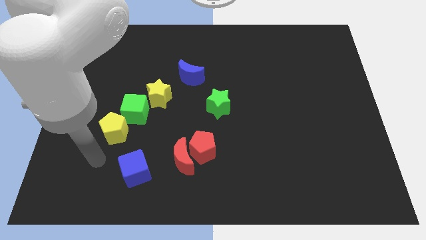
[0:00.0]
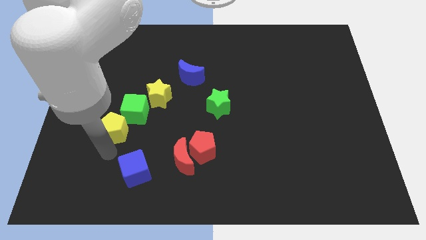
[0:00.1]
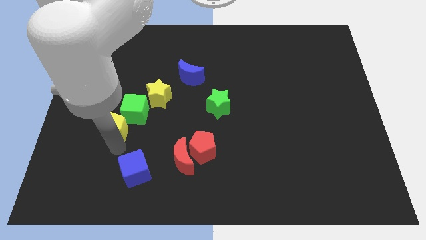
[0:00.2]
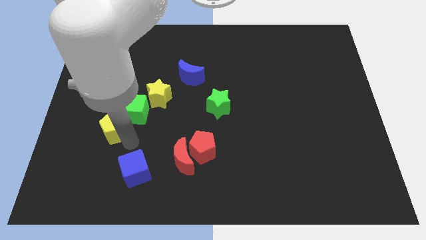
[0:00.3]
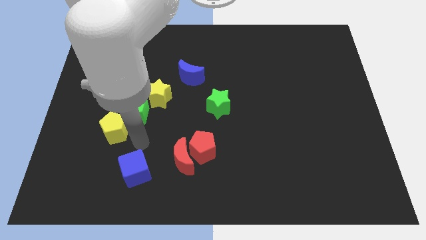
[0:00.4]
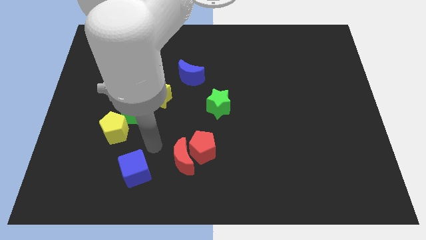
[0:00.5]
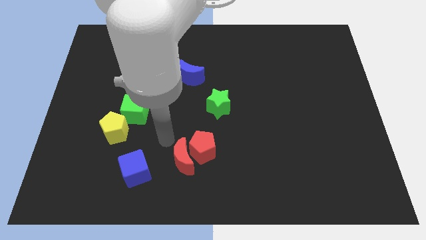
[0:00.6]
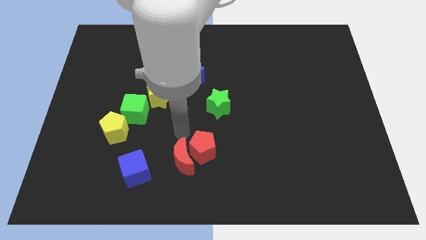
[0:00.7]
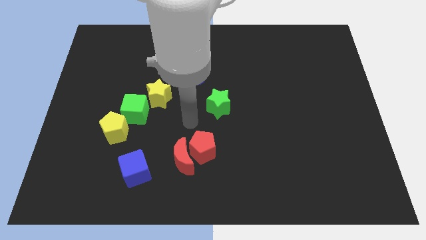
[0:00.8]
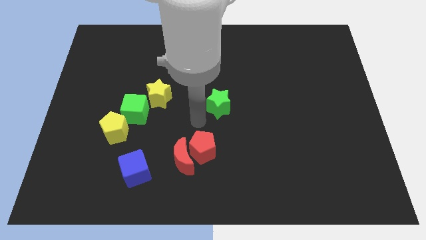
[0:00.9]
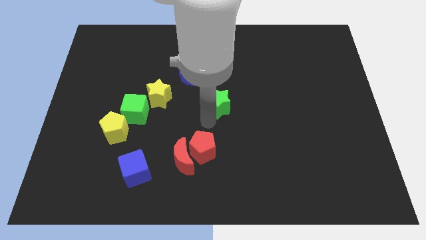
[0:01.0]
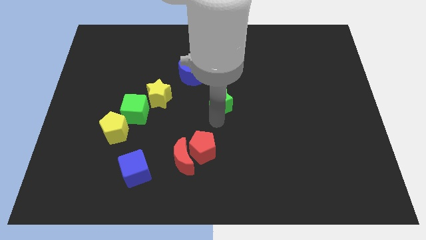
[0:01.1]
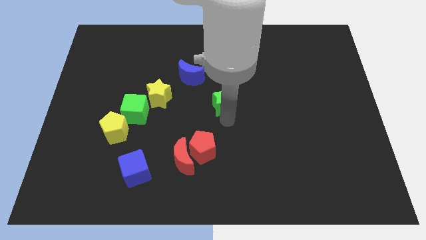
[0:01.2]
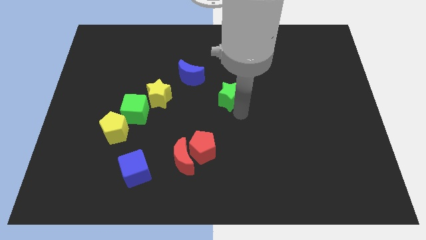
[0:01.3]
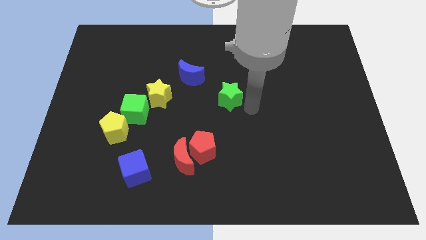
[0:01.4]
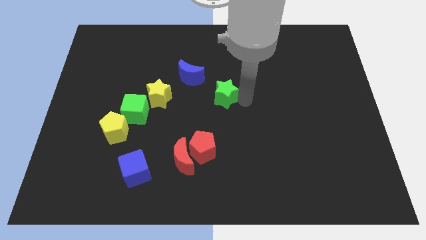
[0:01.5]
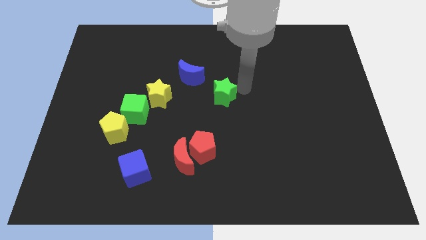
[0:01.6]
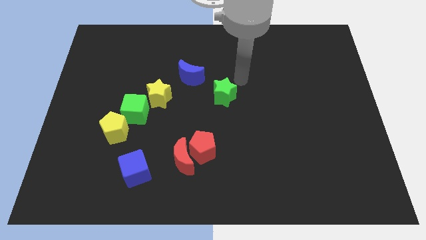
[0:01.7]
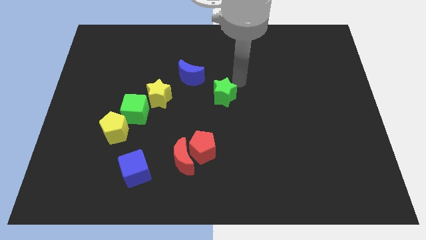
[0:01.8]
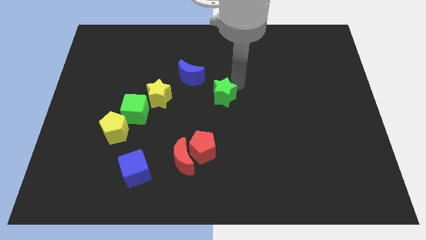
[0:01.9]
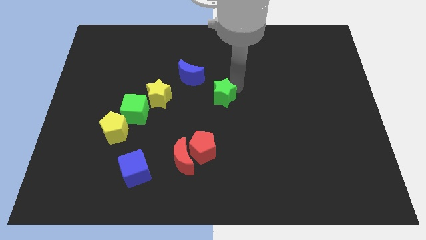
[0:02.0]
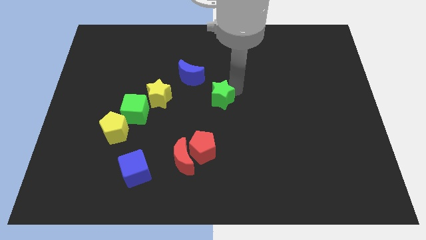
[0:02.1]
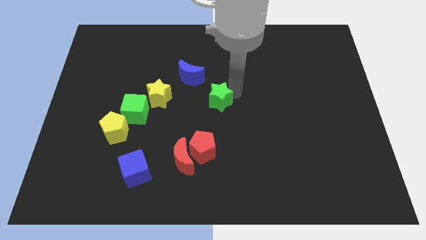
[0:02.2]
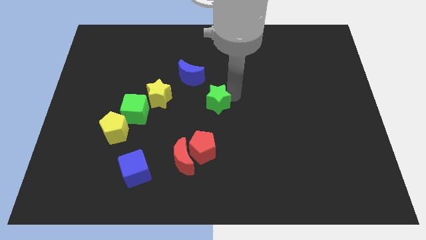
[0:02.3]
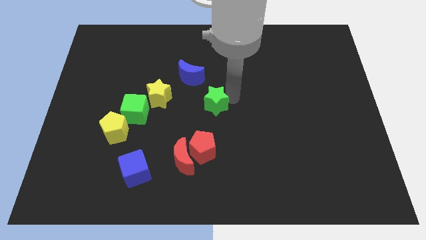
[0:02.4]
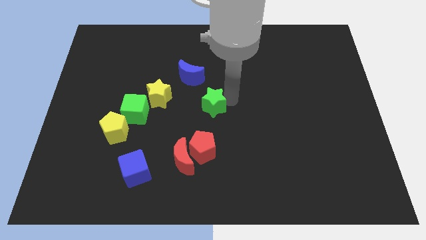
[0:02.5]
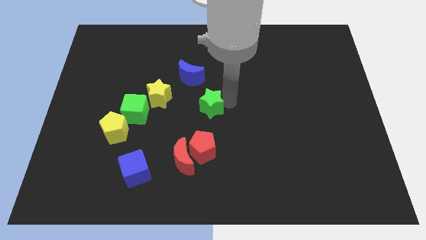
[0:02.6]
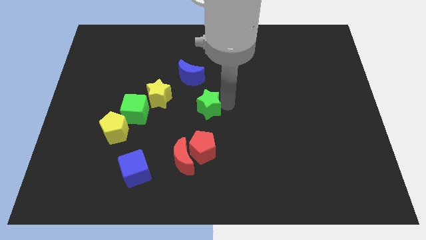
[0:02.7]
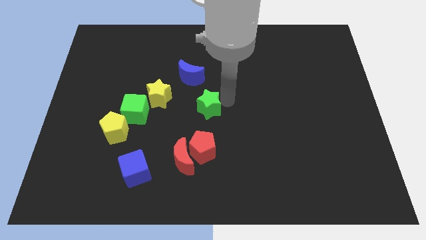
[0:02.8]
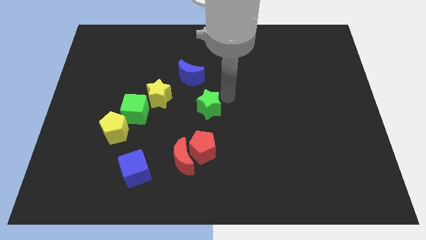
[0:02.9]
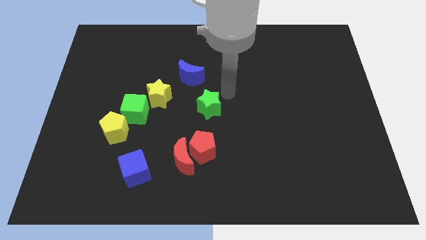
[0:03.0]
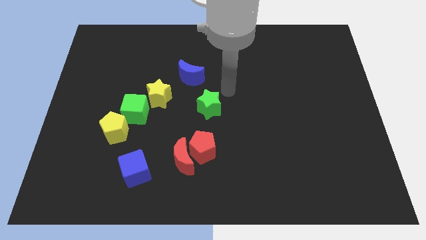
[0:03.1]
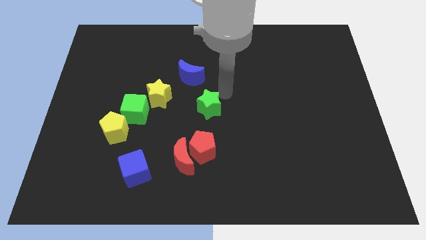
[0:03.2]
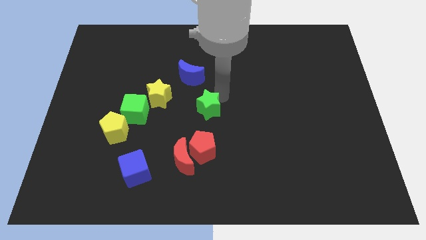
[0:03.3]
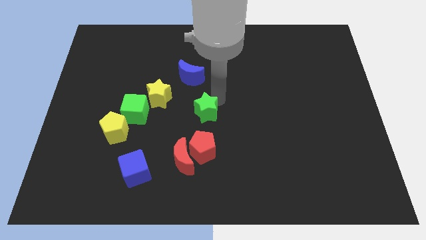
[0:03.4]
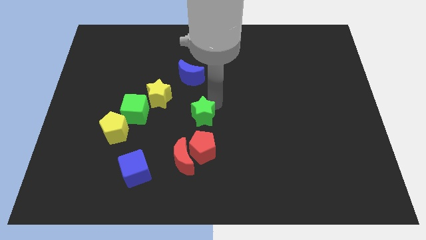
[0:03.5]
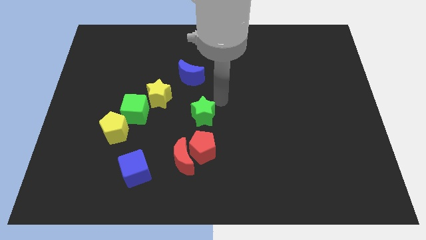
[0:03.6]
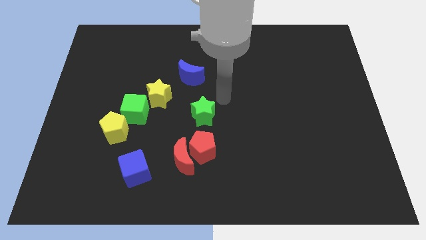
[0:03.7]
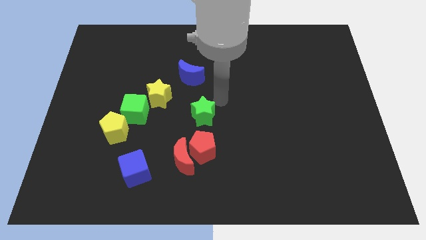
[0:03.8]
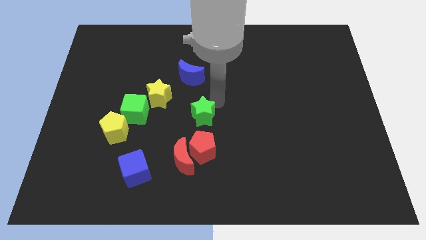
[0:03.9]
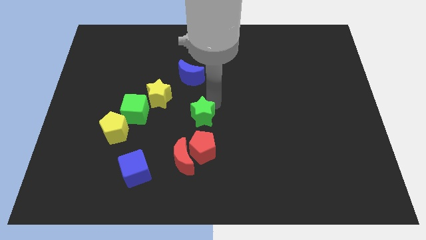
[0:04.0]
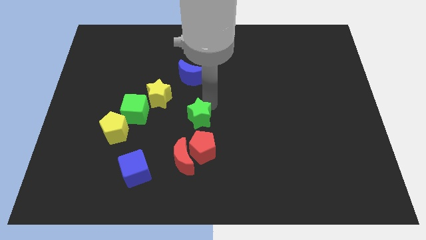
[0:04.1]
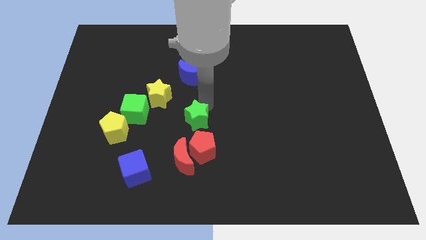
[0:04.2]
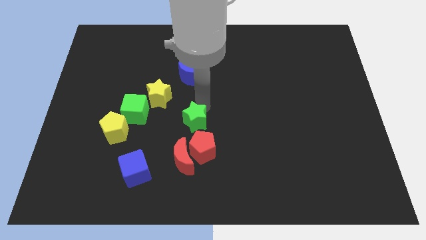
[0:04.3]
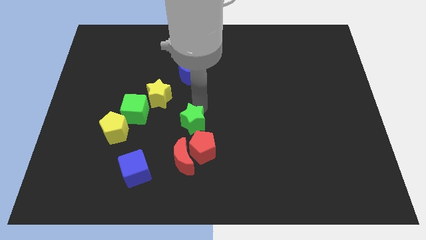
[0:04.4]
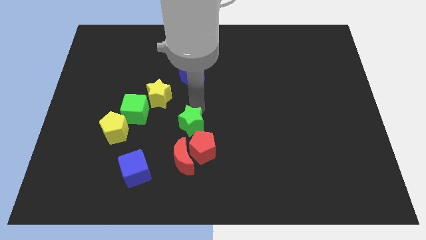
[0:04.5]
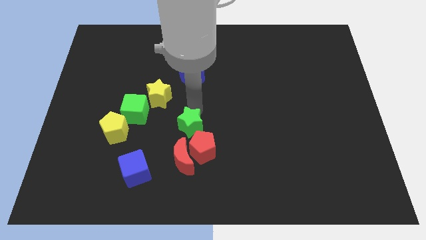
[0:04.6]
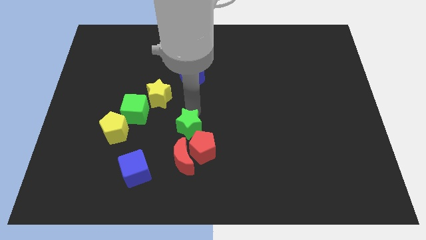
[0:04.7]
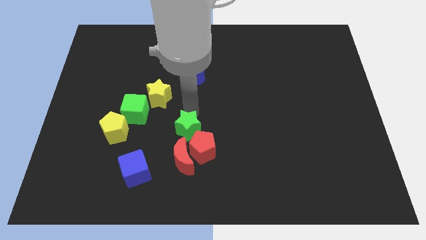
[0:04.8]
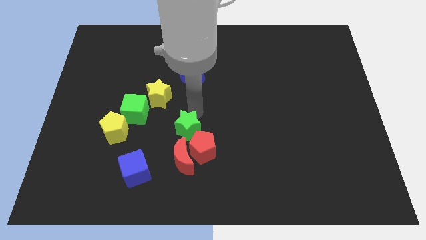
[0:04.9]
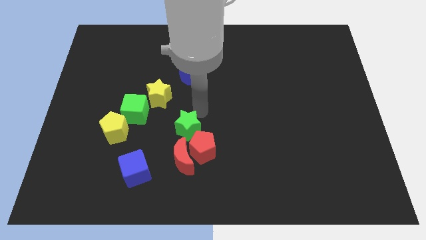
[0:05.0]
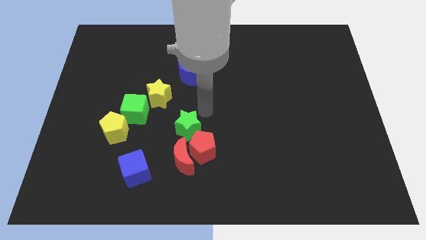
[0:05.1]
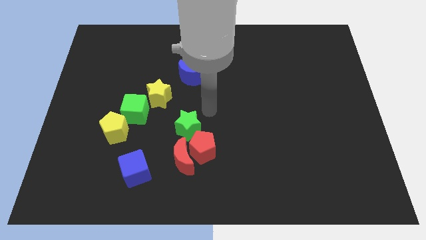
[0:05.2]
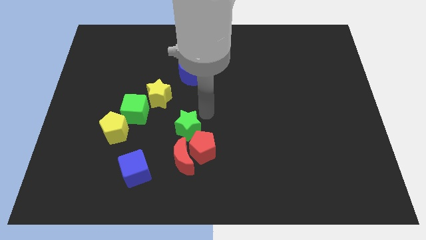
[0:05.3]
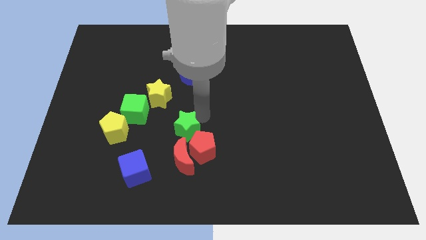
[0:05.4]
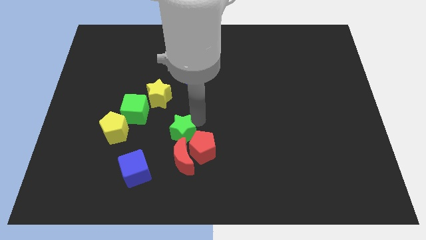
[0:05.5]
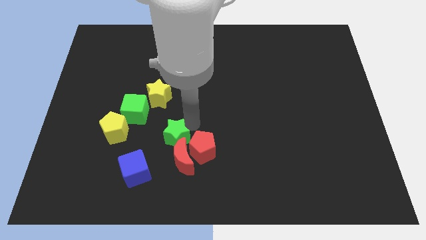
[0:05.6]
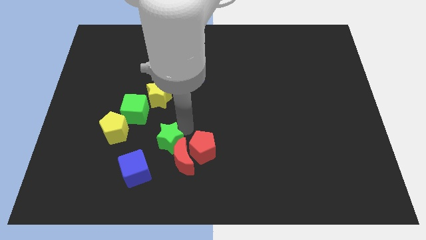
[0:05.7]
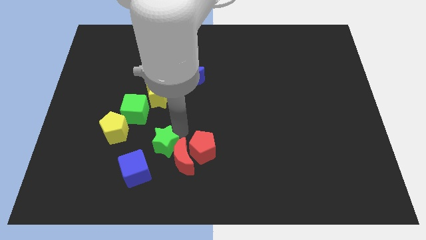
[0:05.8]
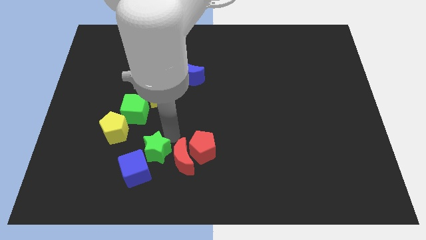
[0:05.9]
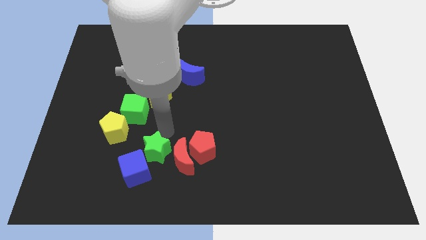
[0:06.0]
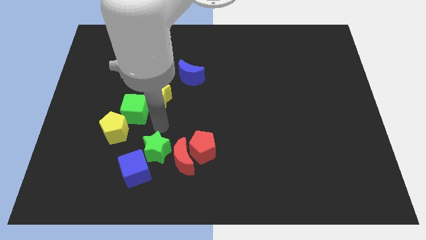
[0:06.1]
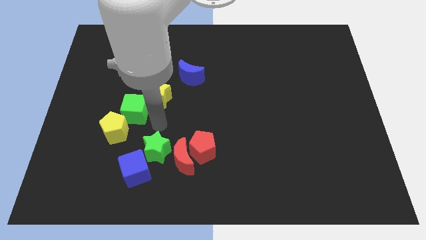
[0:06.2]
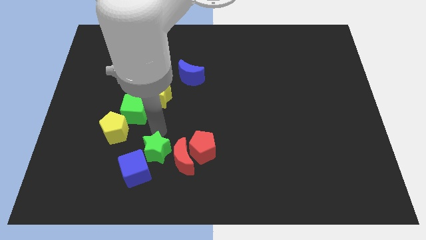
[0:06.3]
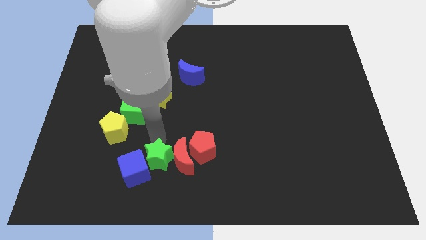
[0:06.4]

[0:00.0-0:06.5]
slide the green star diagonally down and to the left of the red moon

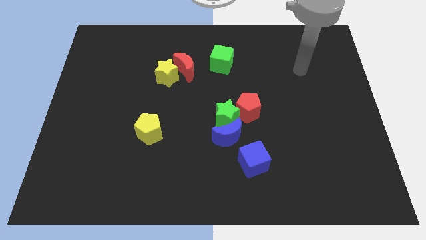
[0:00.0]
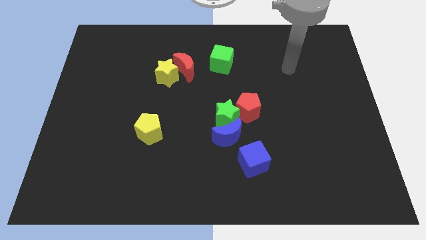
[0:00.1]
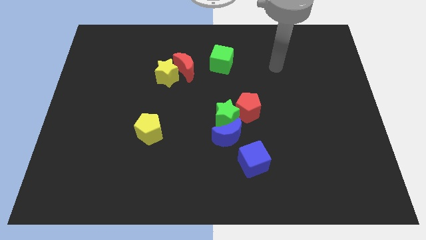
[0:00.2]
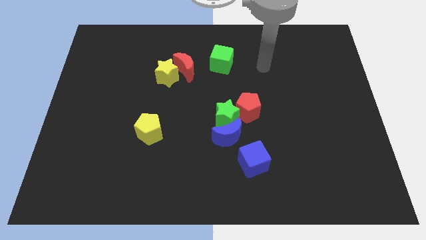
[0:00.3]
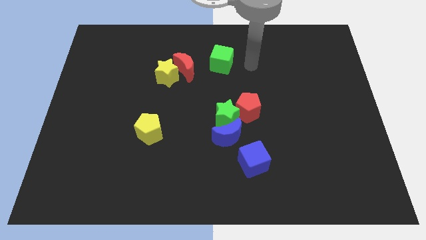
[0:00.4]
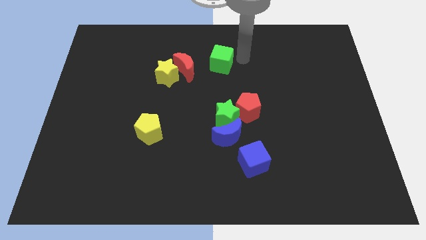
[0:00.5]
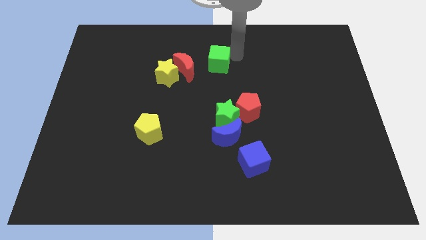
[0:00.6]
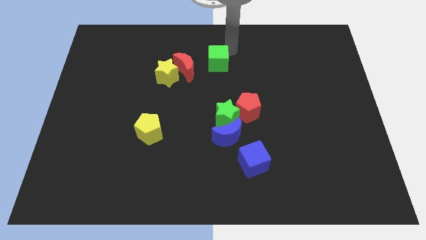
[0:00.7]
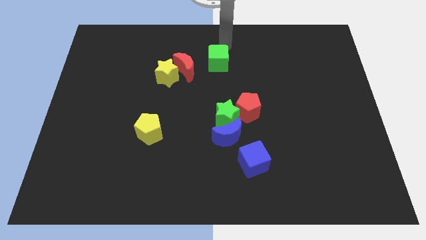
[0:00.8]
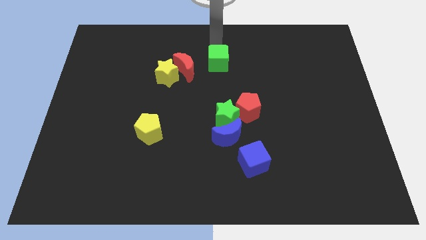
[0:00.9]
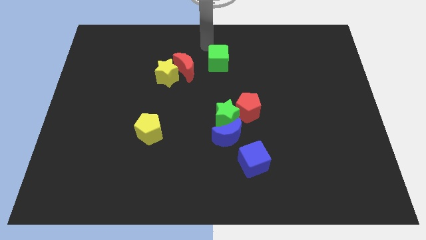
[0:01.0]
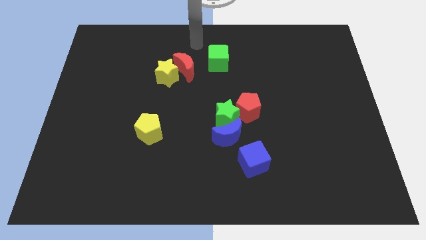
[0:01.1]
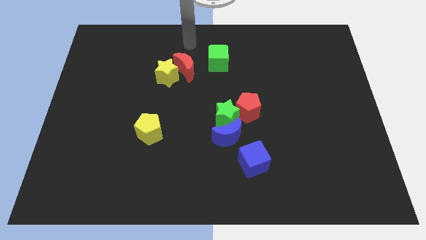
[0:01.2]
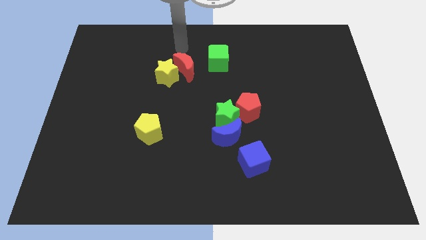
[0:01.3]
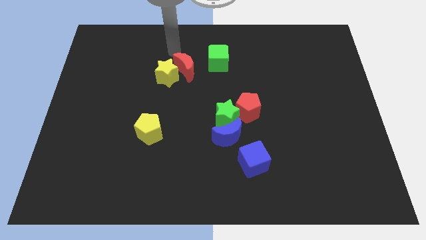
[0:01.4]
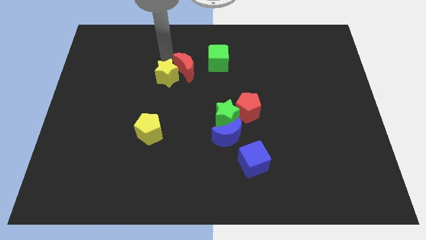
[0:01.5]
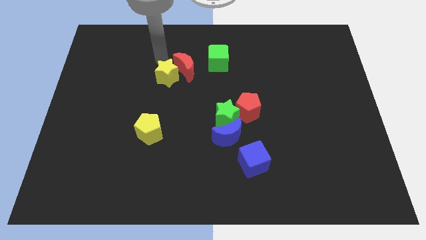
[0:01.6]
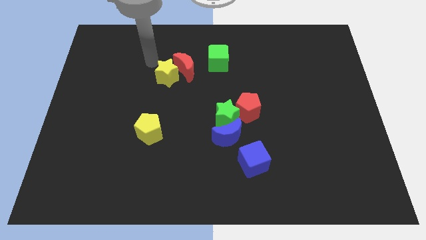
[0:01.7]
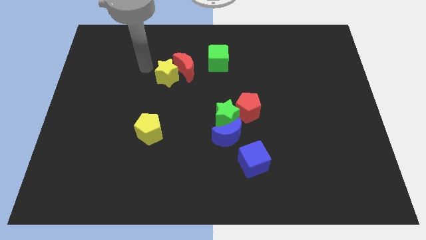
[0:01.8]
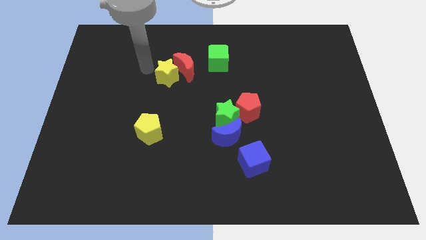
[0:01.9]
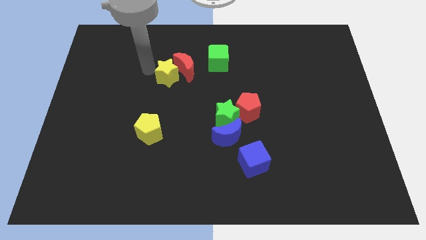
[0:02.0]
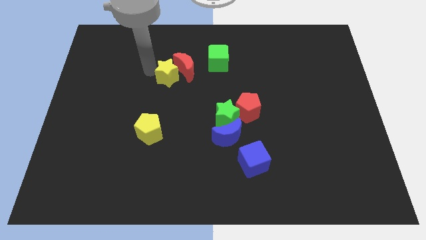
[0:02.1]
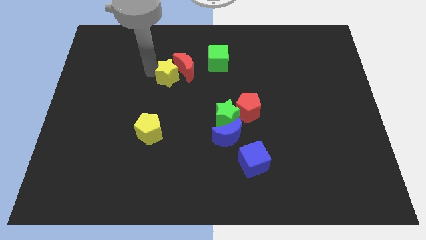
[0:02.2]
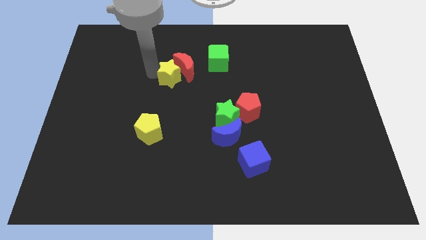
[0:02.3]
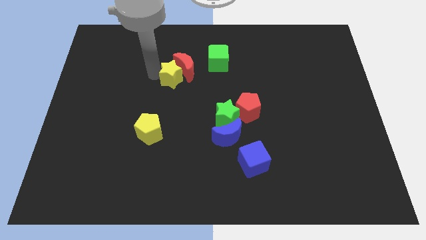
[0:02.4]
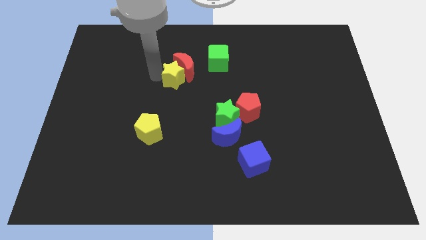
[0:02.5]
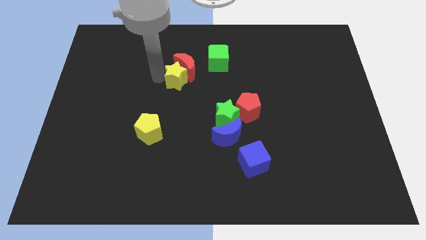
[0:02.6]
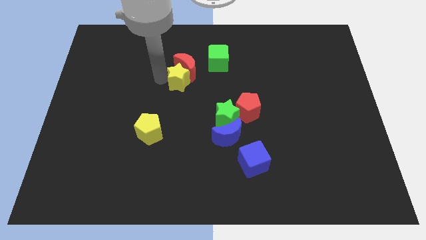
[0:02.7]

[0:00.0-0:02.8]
put the yellow star diagonally down and to the left of the green cube
